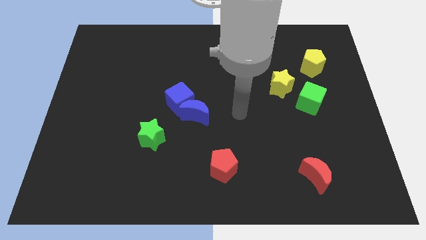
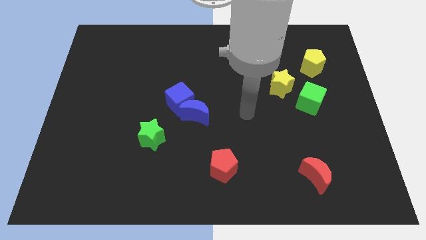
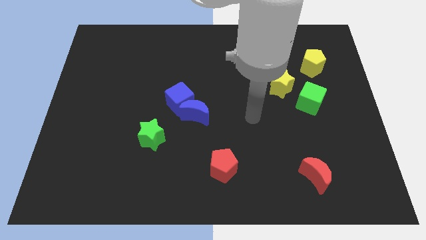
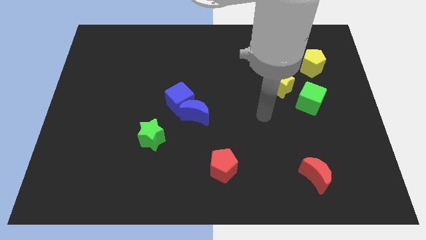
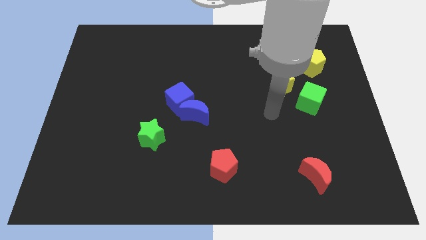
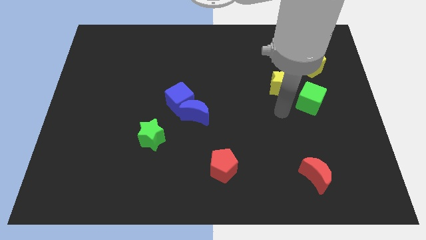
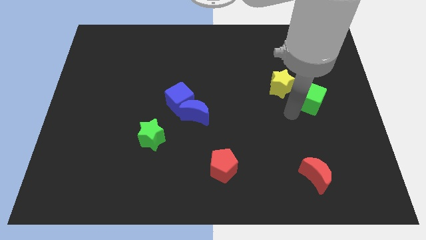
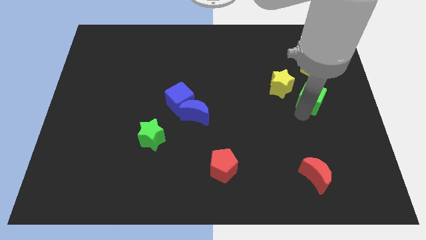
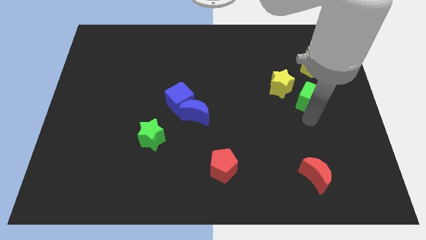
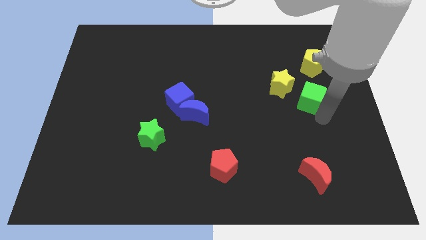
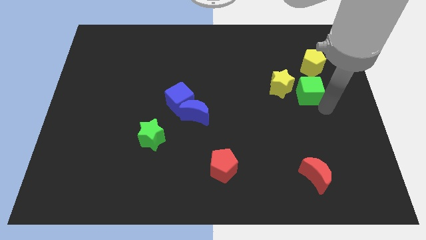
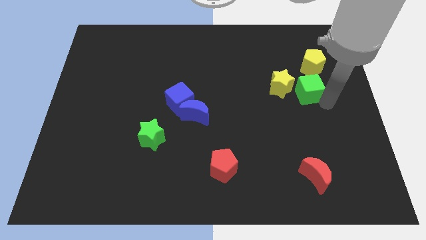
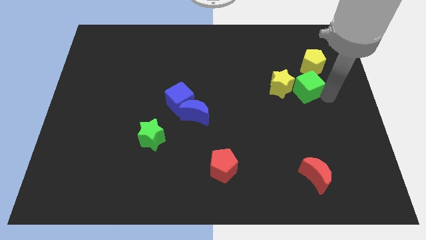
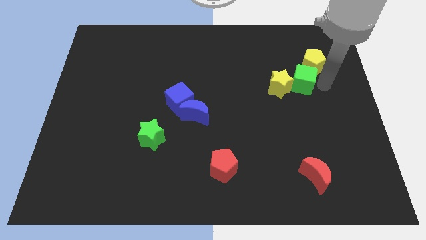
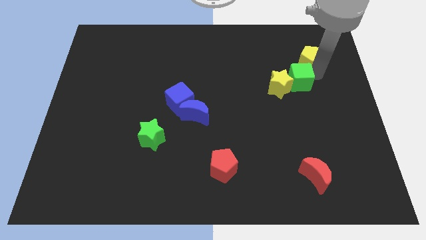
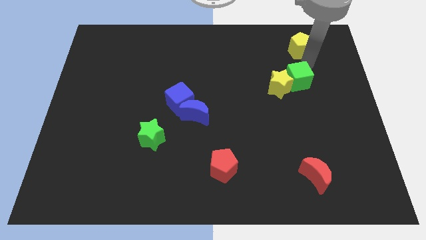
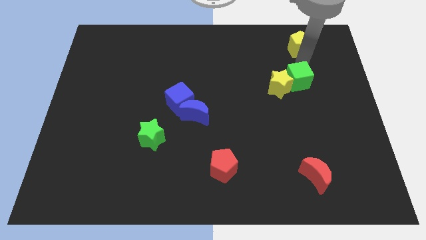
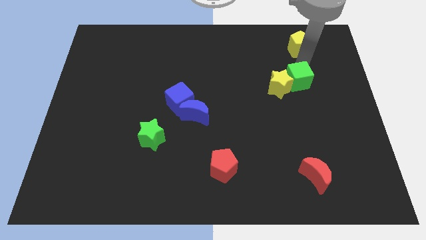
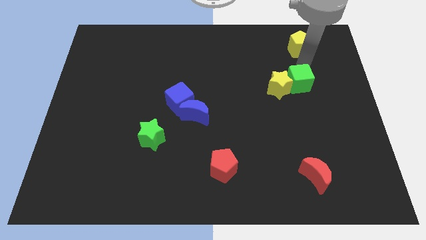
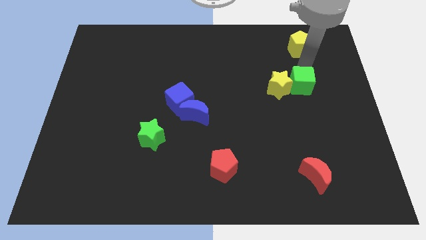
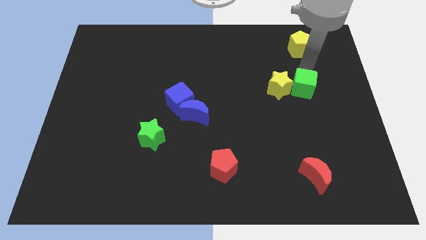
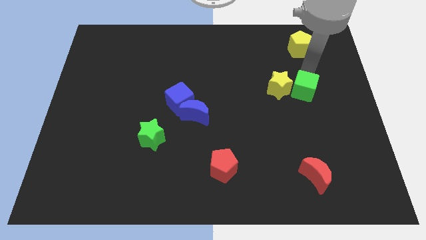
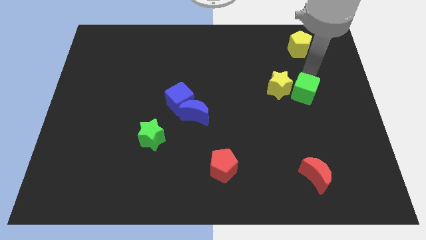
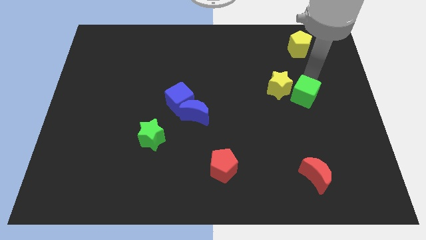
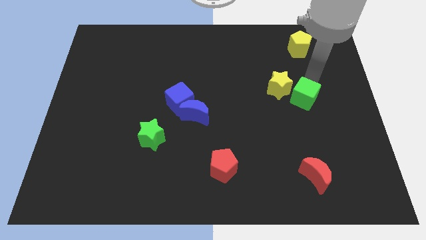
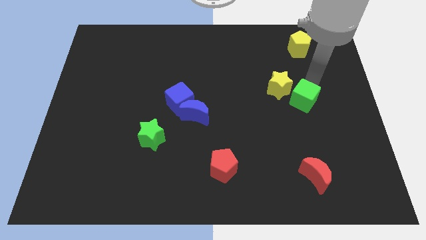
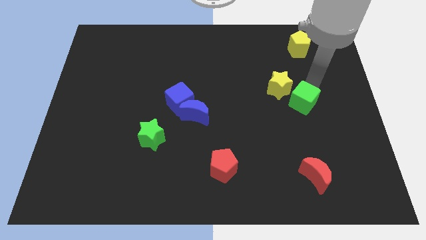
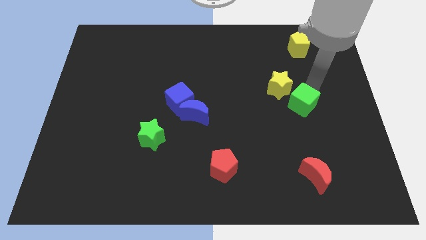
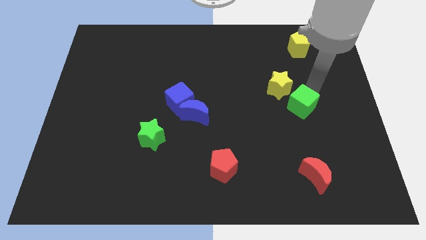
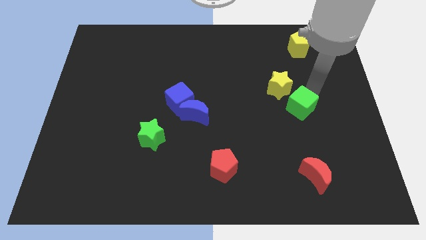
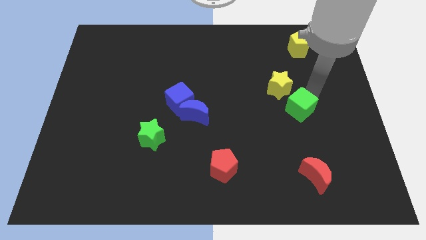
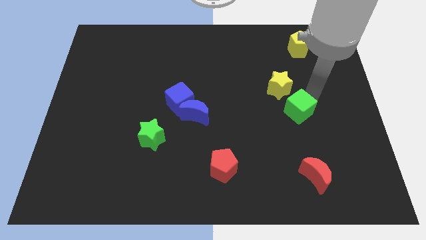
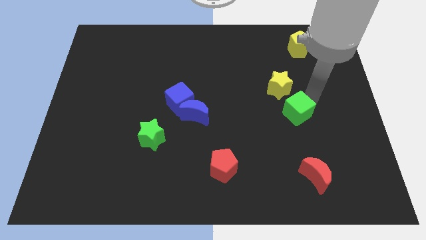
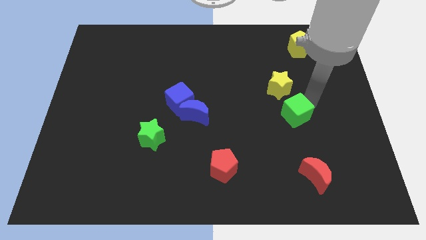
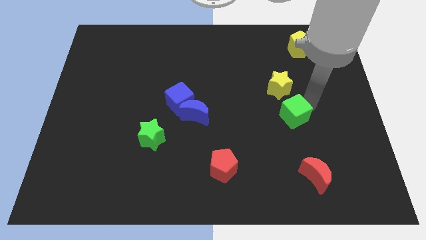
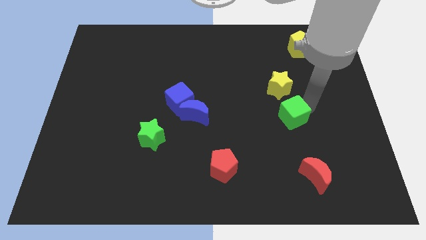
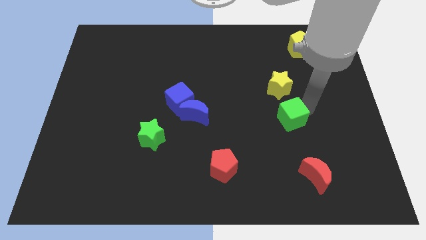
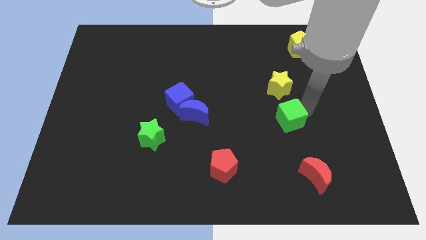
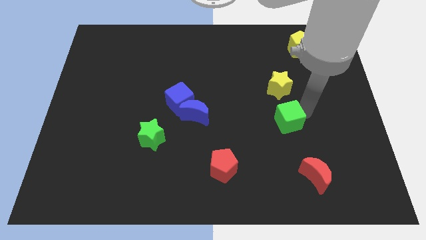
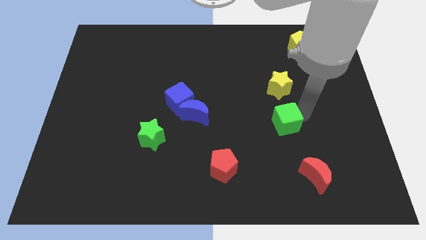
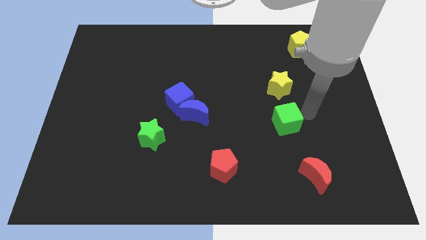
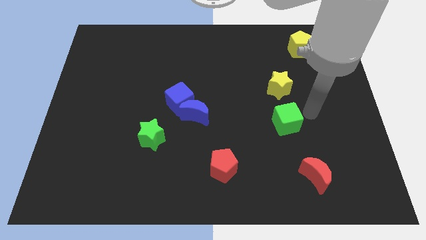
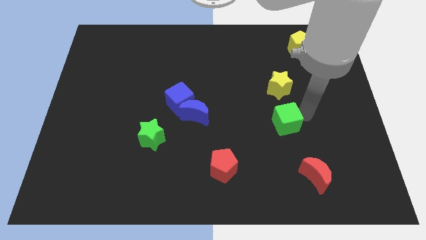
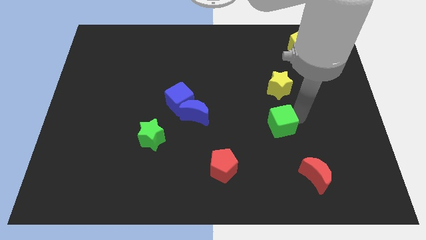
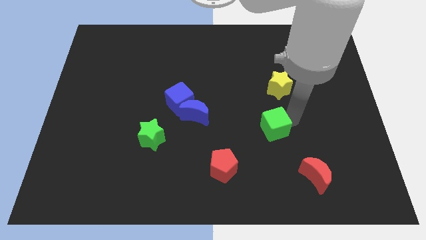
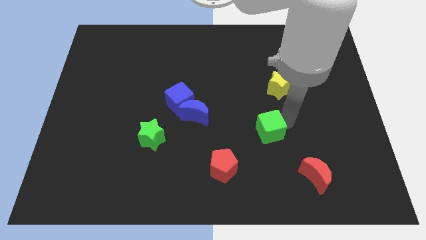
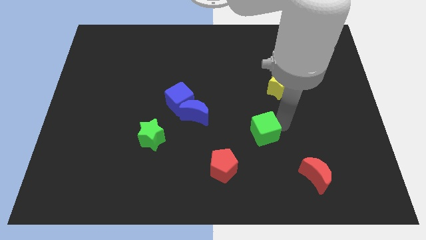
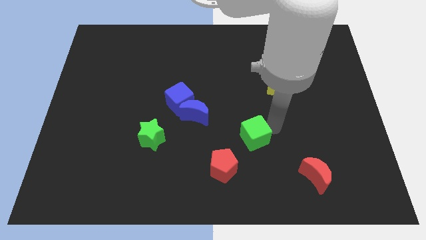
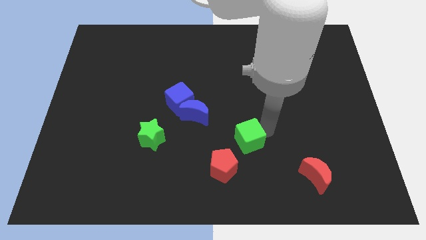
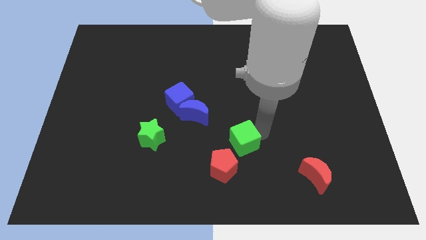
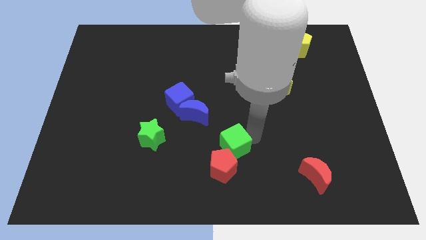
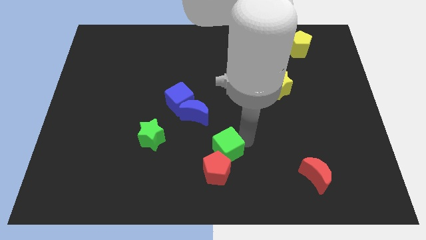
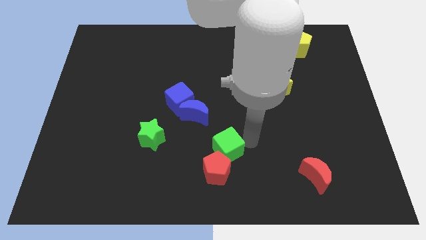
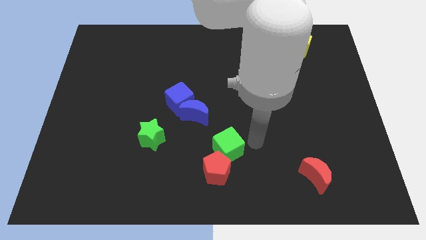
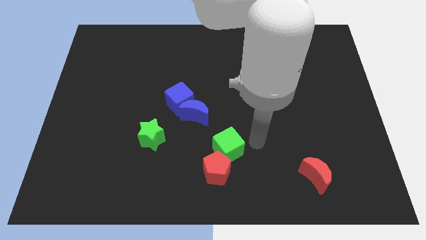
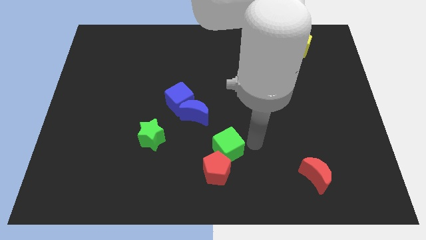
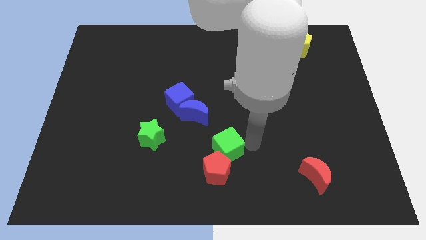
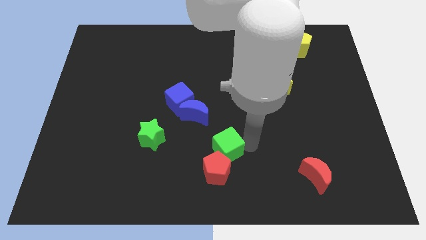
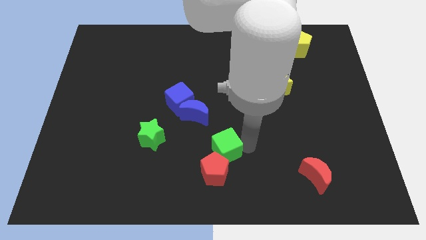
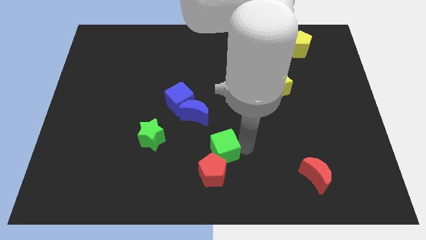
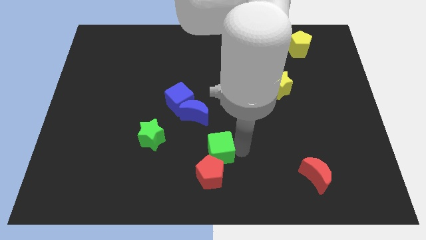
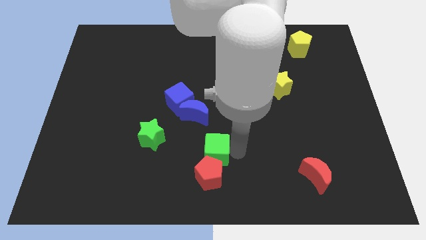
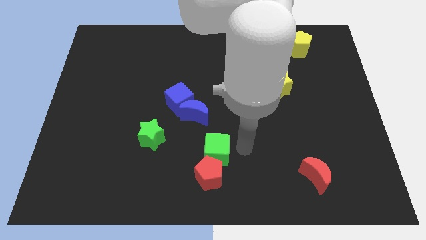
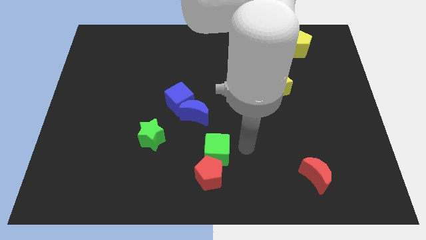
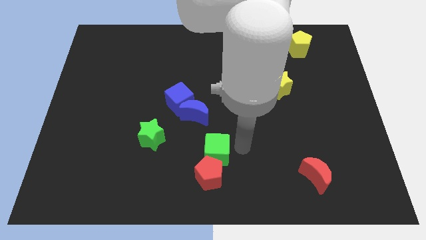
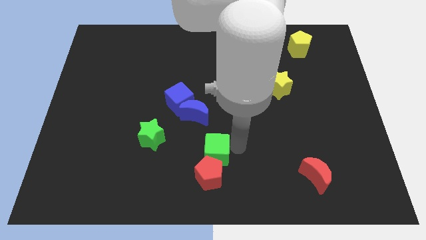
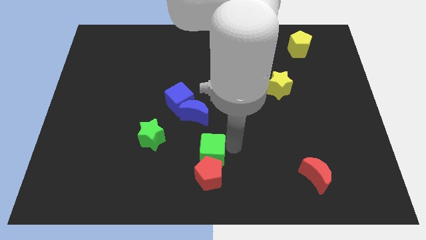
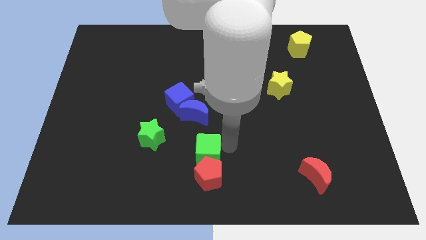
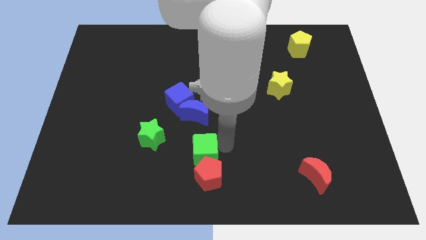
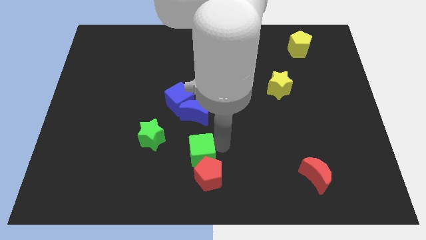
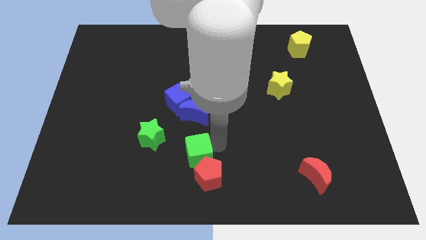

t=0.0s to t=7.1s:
move the green cube to the bottom right of the green star
